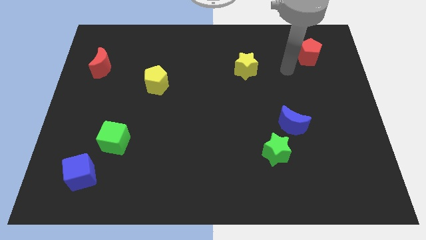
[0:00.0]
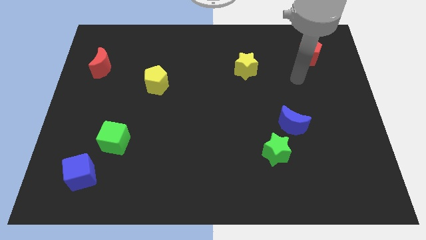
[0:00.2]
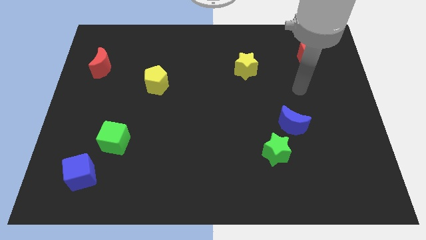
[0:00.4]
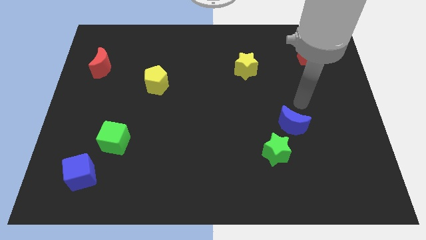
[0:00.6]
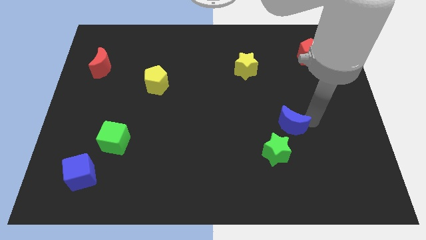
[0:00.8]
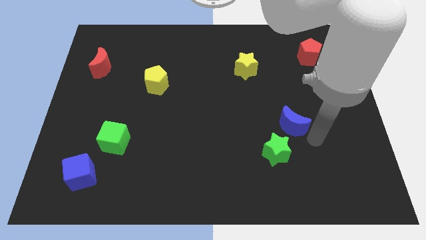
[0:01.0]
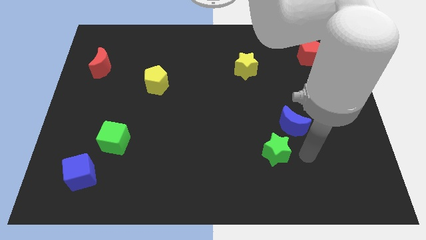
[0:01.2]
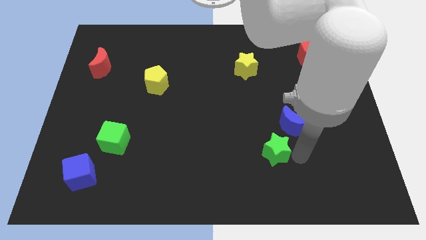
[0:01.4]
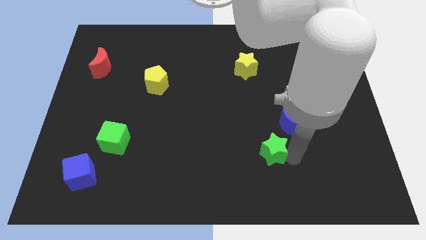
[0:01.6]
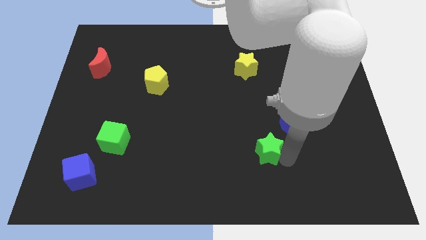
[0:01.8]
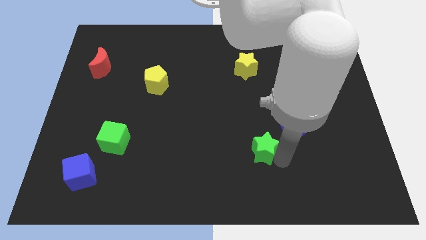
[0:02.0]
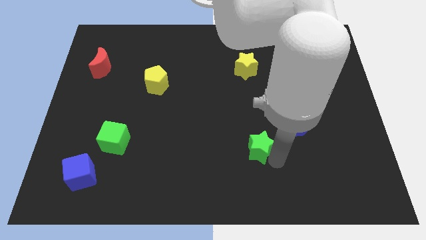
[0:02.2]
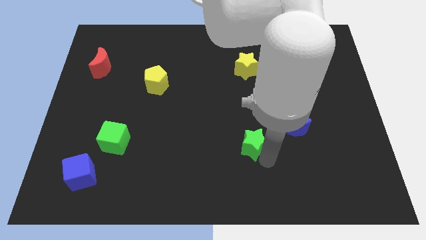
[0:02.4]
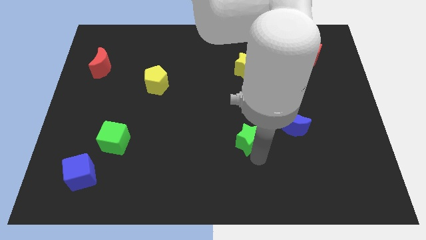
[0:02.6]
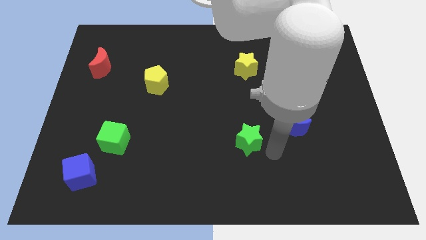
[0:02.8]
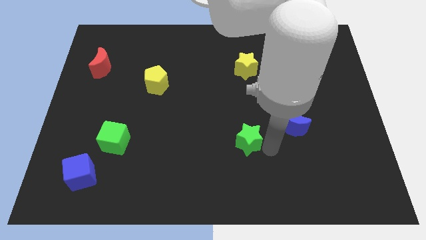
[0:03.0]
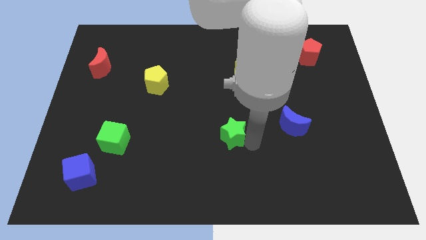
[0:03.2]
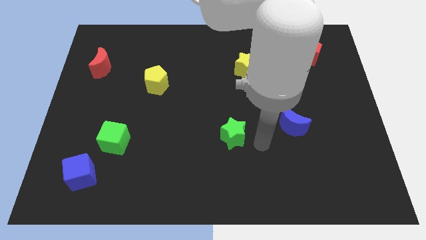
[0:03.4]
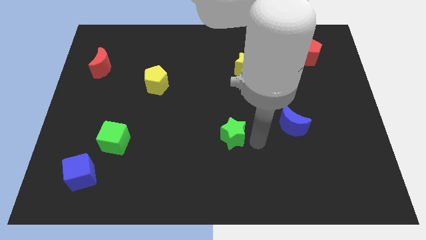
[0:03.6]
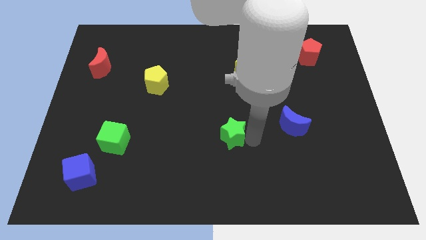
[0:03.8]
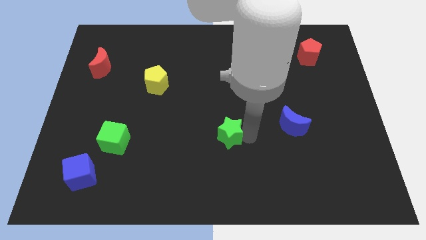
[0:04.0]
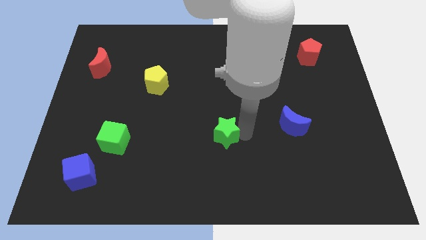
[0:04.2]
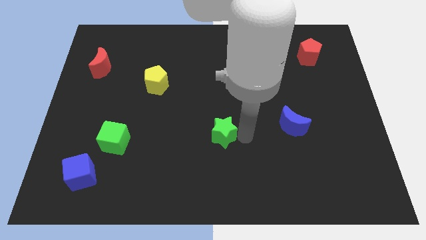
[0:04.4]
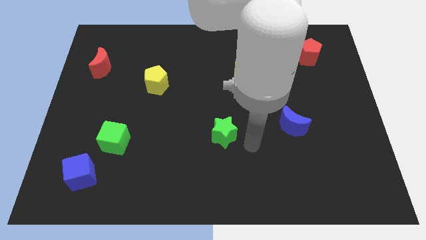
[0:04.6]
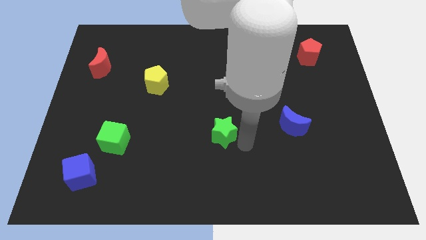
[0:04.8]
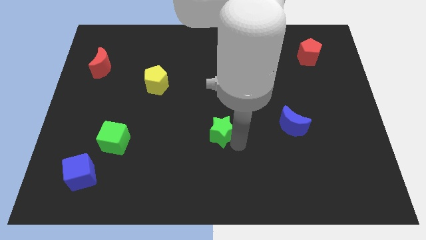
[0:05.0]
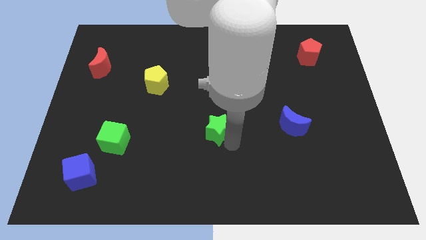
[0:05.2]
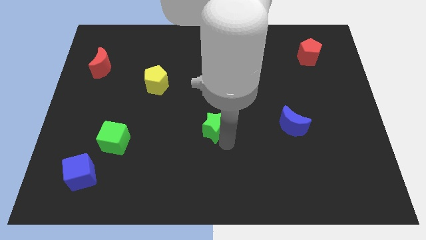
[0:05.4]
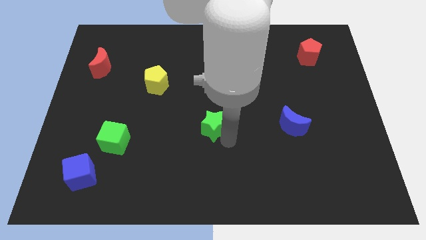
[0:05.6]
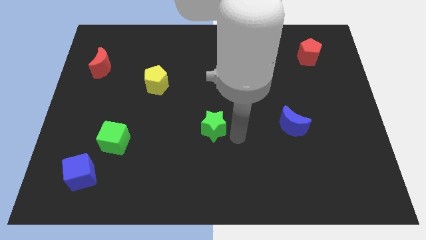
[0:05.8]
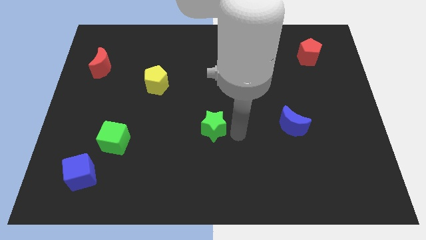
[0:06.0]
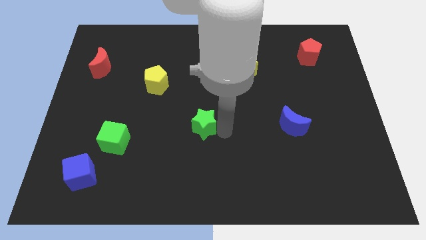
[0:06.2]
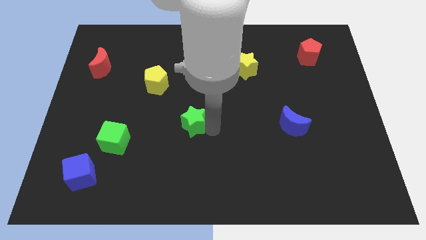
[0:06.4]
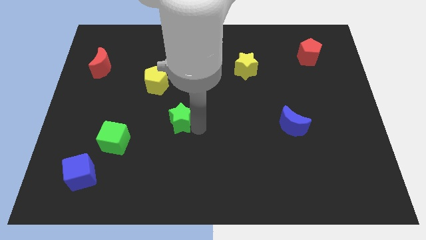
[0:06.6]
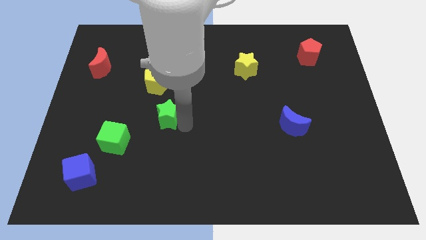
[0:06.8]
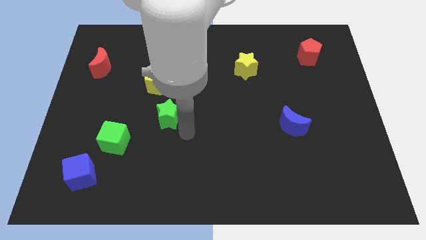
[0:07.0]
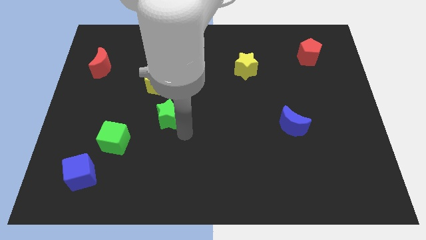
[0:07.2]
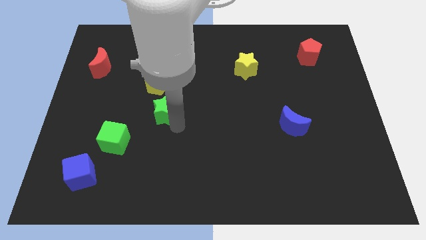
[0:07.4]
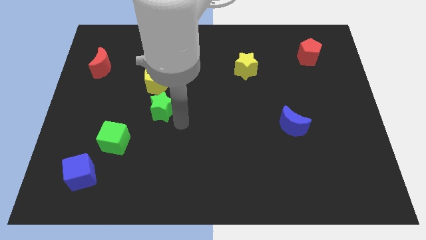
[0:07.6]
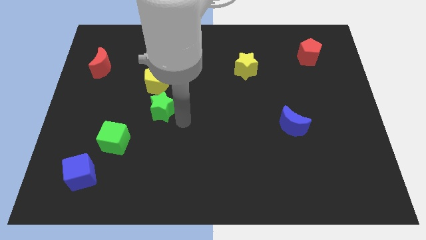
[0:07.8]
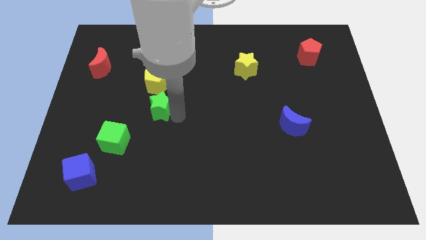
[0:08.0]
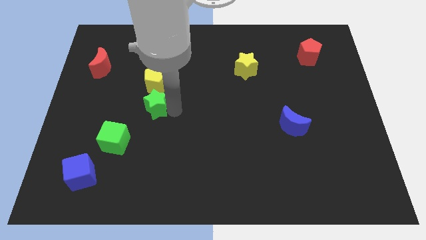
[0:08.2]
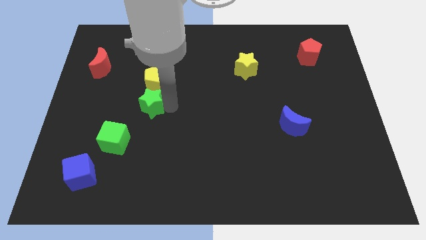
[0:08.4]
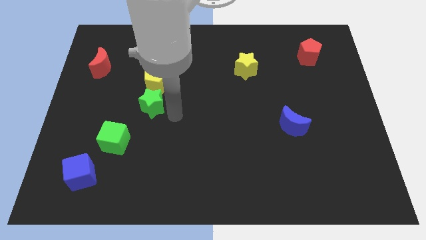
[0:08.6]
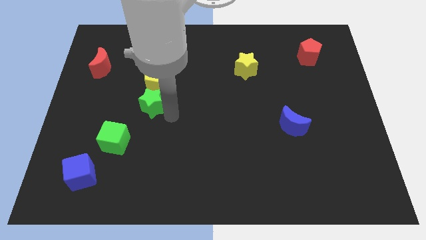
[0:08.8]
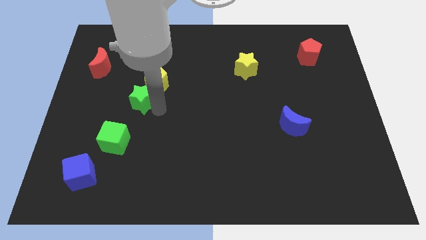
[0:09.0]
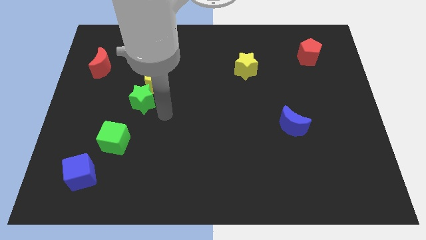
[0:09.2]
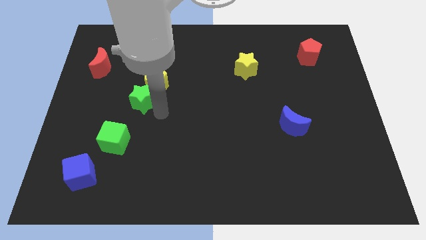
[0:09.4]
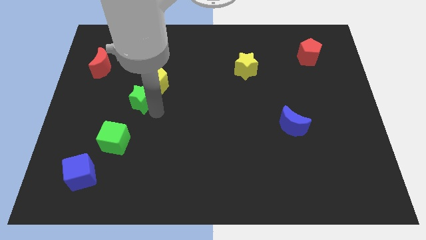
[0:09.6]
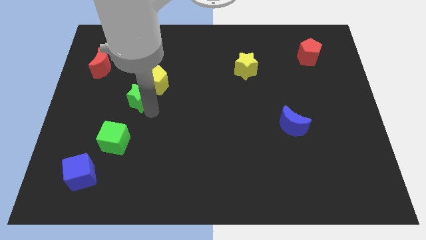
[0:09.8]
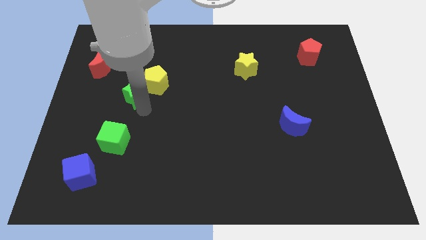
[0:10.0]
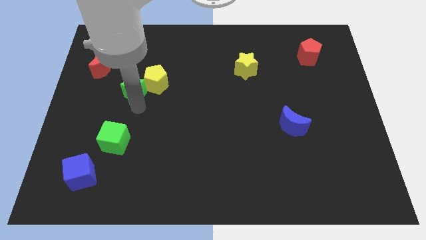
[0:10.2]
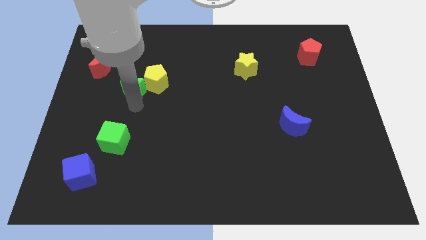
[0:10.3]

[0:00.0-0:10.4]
slide the green star to the bottom right of the red moon

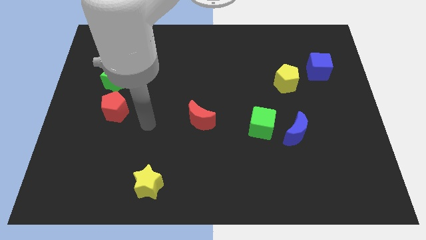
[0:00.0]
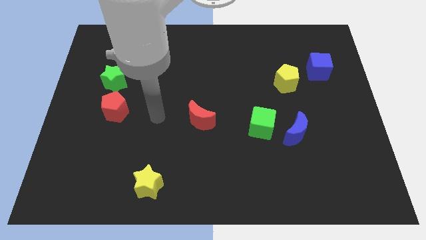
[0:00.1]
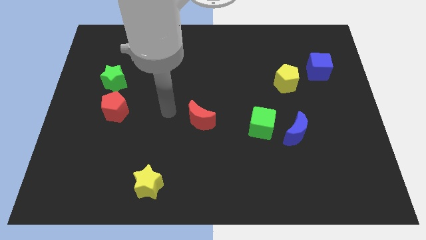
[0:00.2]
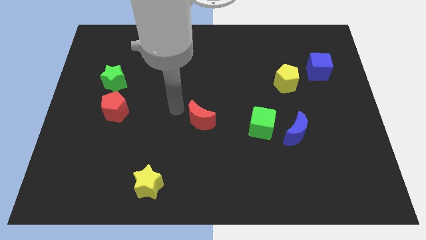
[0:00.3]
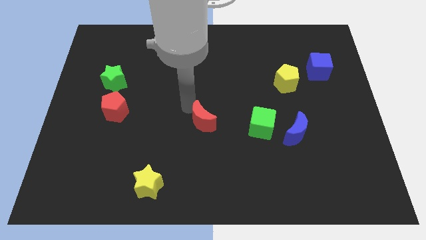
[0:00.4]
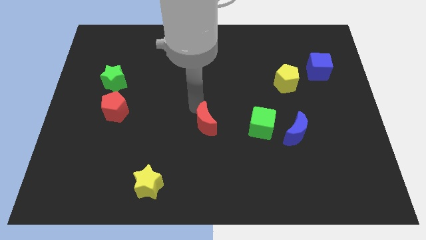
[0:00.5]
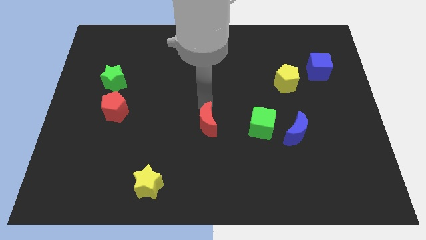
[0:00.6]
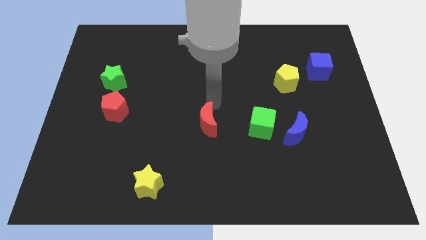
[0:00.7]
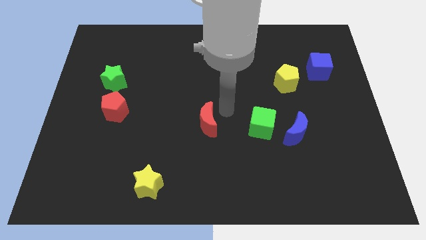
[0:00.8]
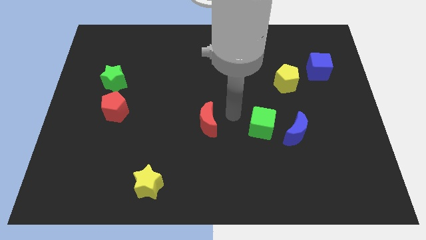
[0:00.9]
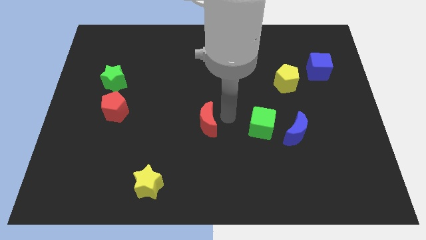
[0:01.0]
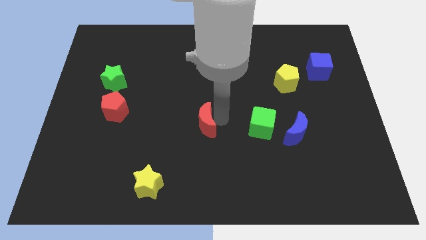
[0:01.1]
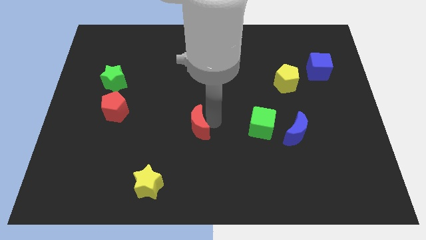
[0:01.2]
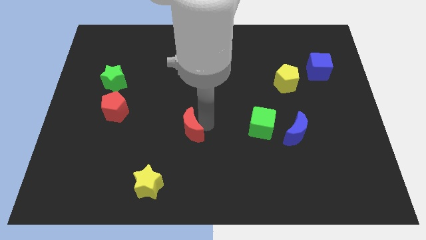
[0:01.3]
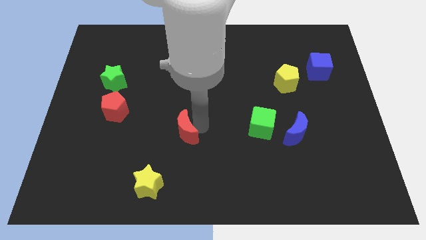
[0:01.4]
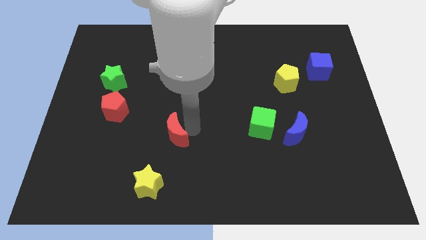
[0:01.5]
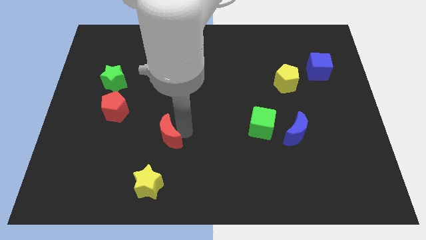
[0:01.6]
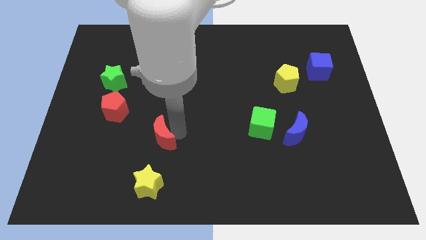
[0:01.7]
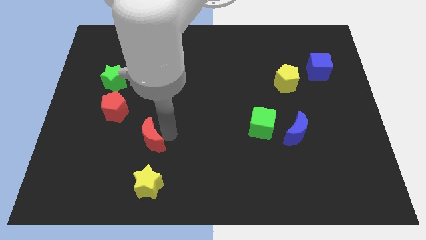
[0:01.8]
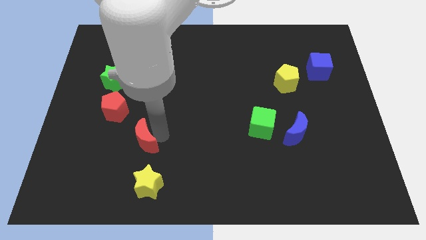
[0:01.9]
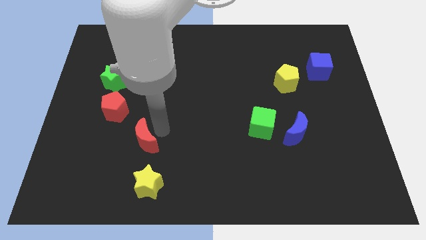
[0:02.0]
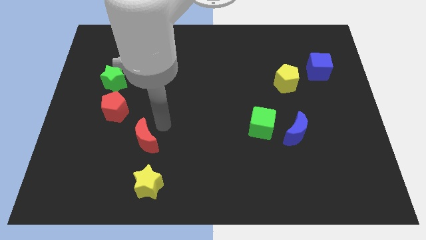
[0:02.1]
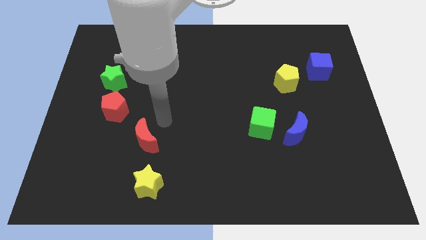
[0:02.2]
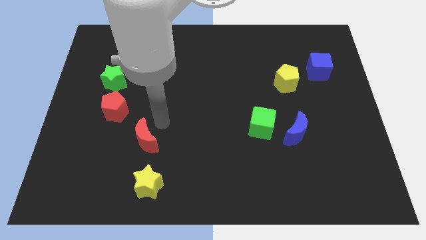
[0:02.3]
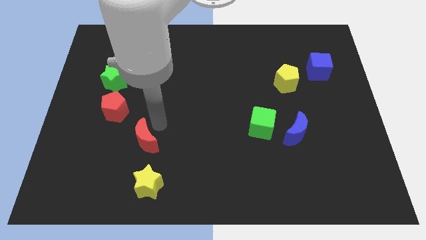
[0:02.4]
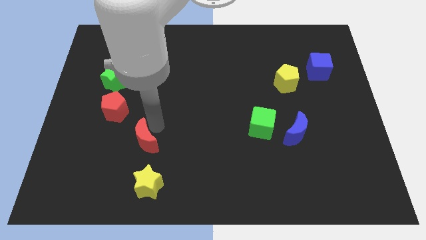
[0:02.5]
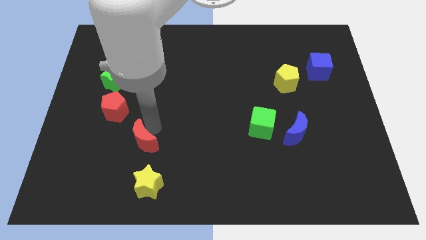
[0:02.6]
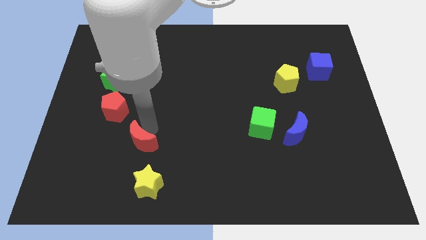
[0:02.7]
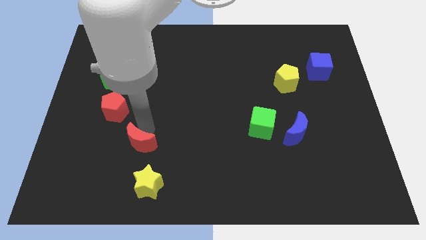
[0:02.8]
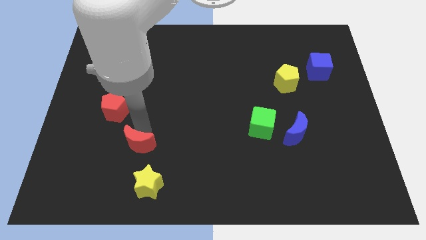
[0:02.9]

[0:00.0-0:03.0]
put the red moon to the top left side of the yellow star
